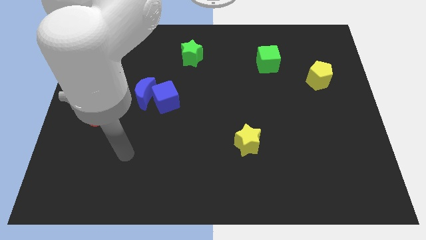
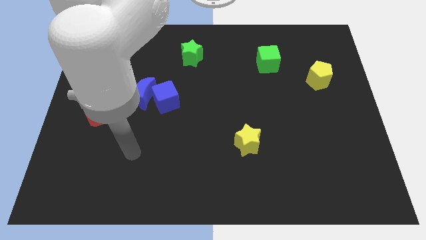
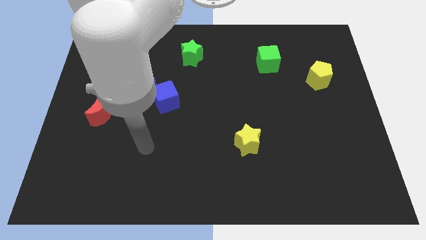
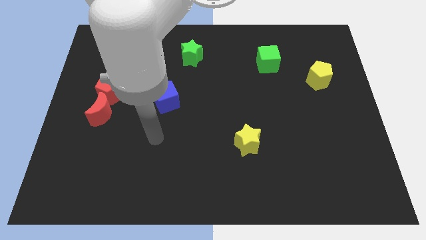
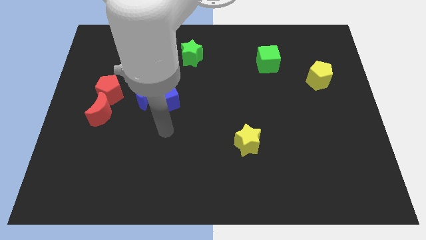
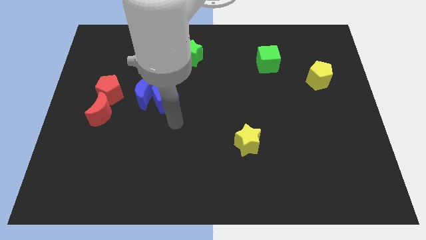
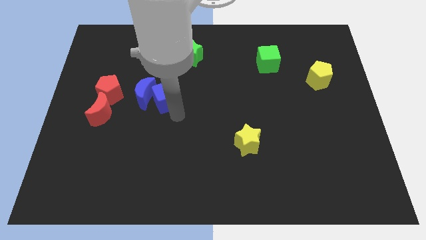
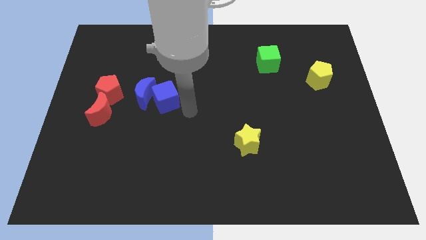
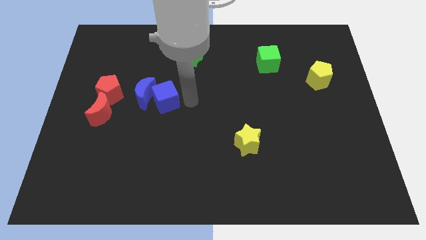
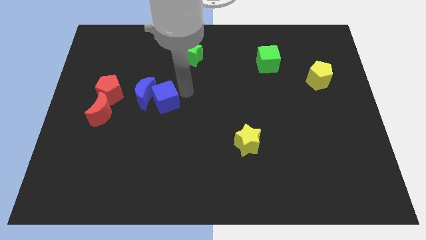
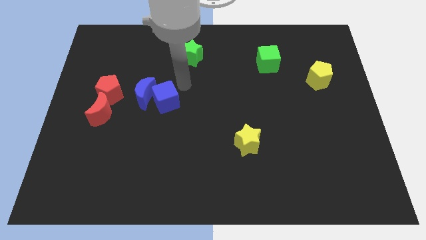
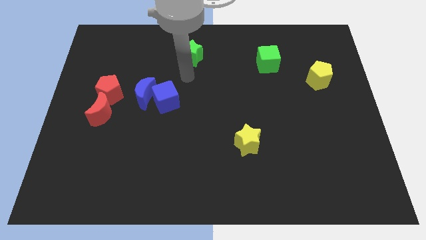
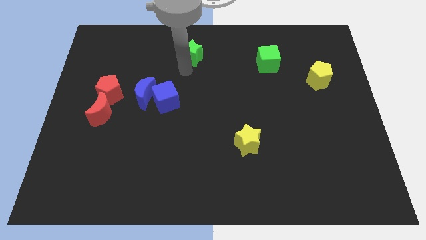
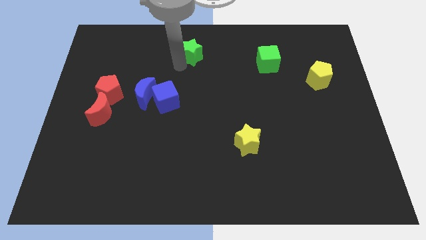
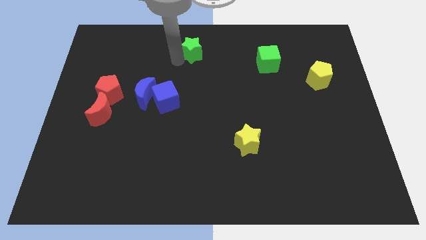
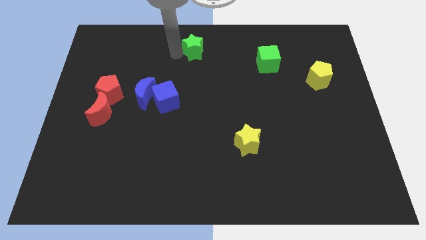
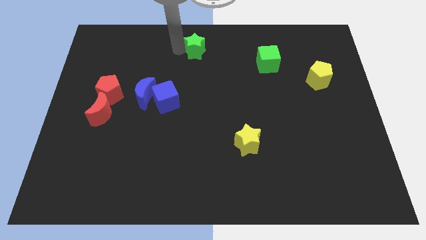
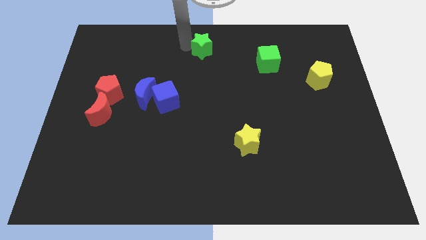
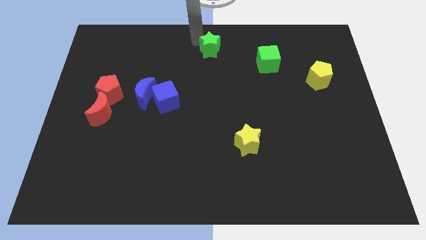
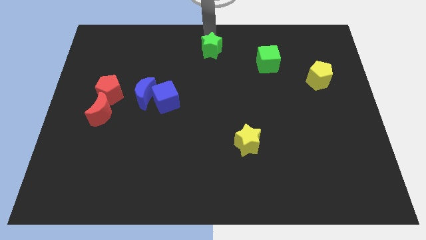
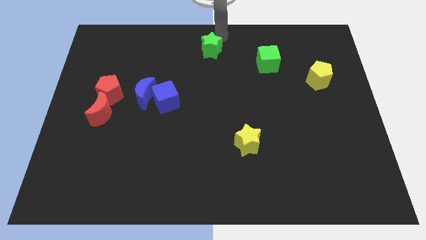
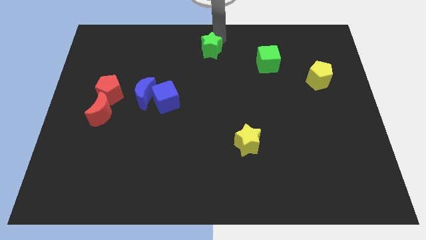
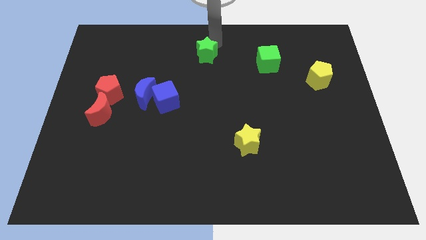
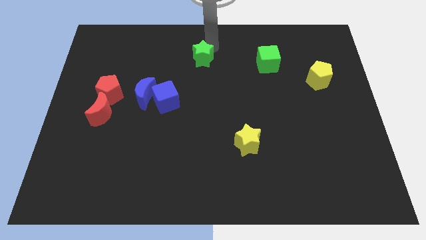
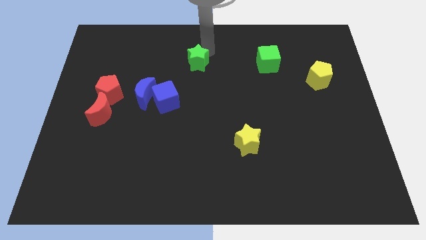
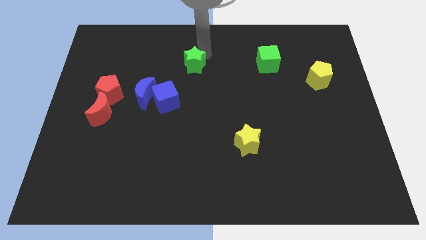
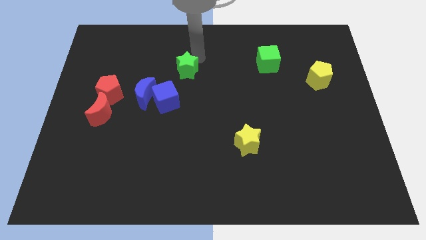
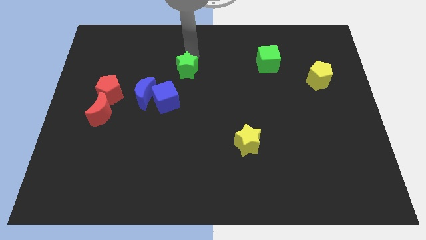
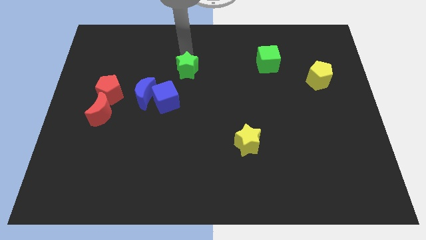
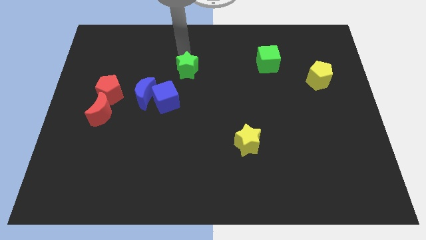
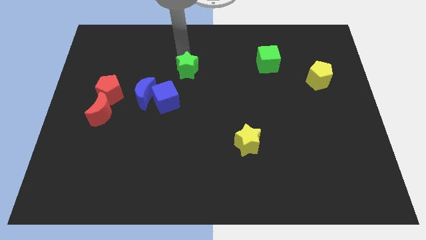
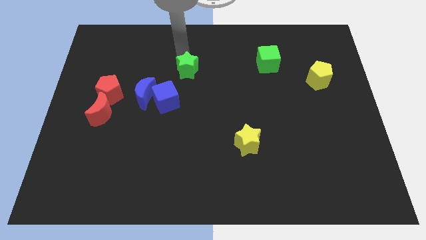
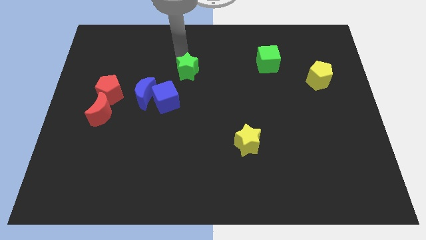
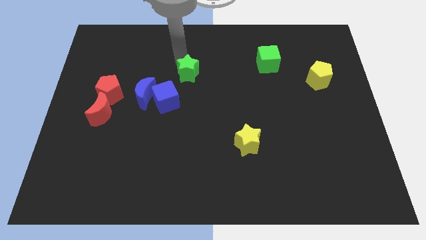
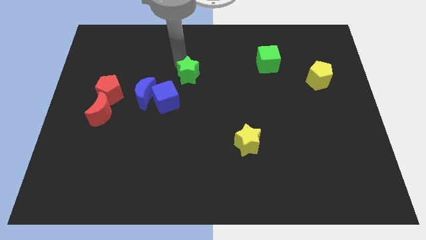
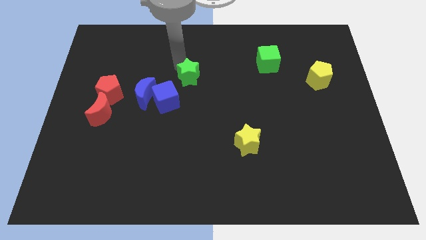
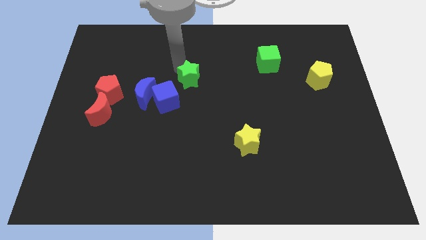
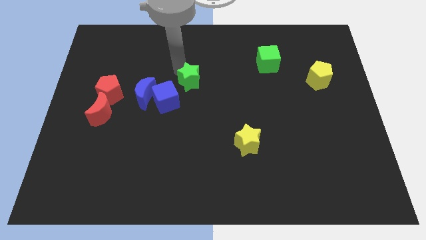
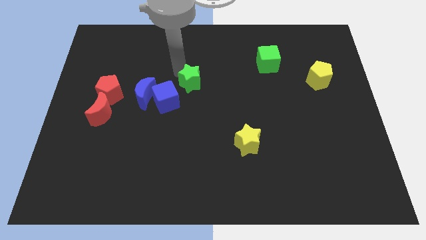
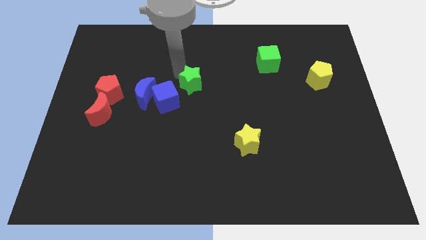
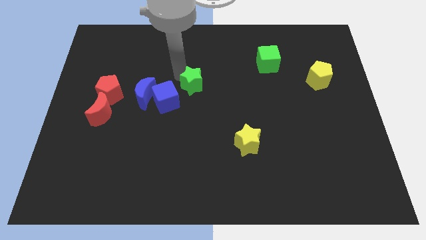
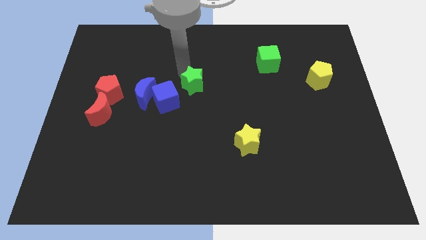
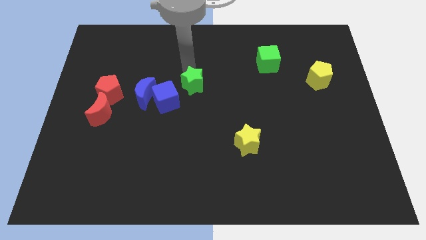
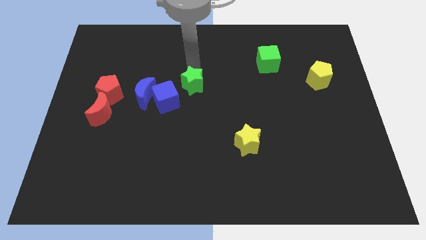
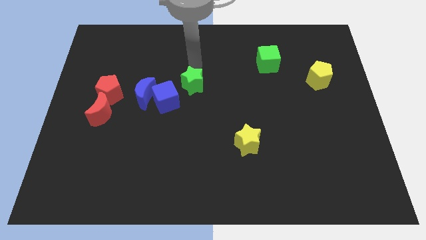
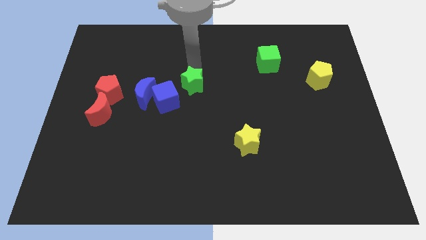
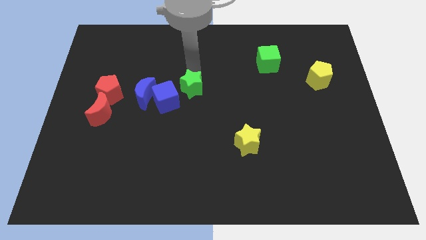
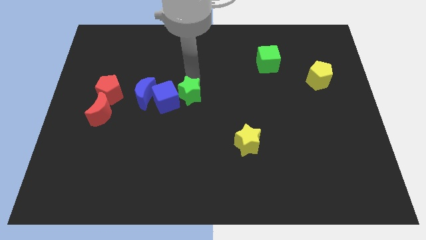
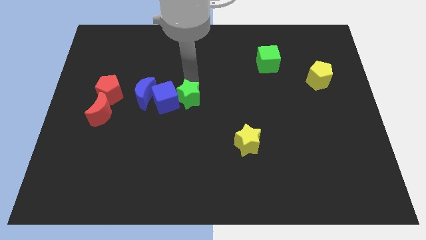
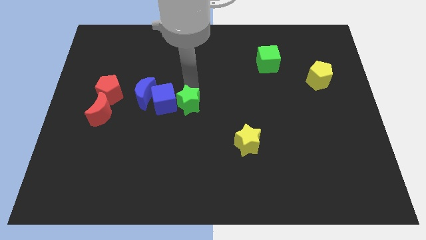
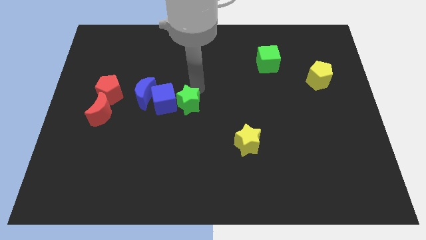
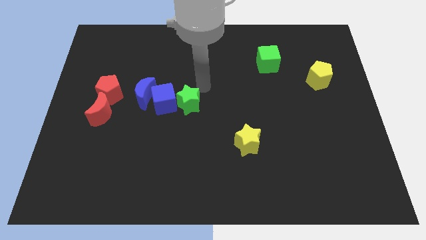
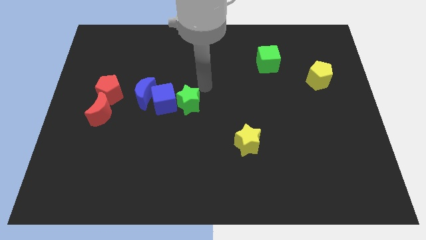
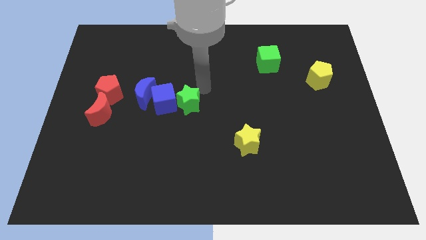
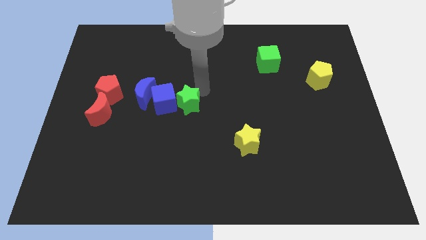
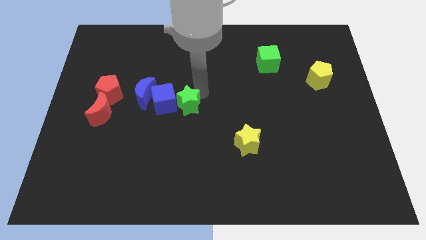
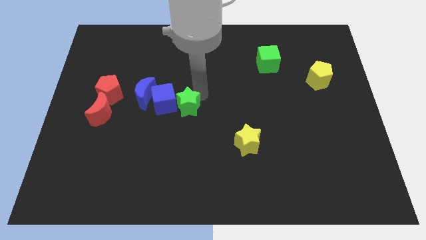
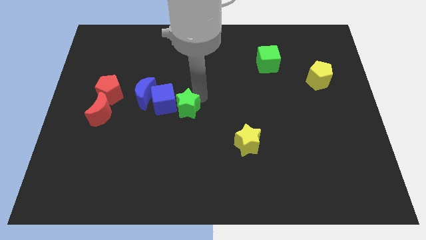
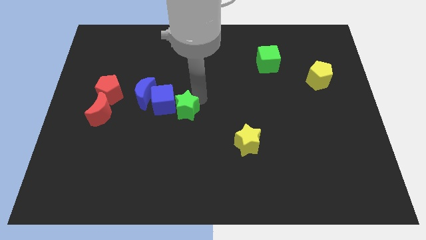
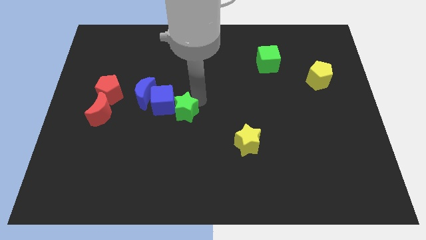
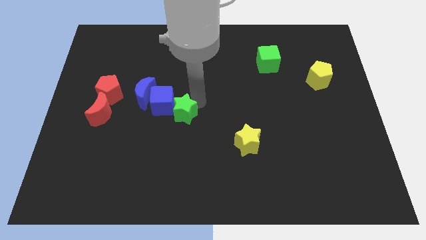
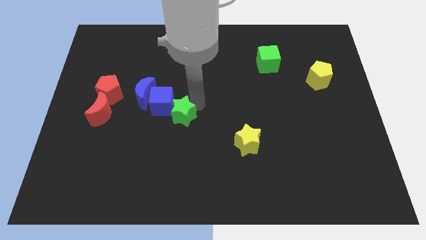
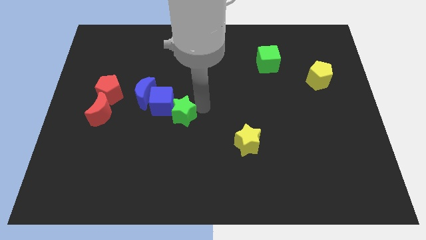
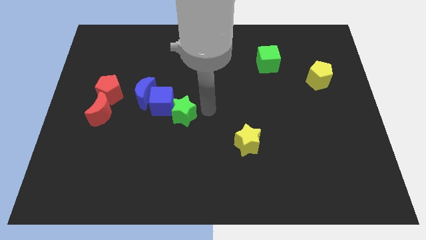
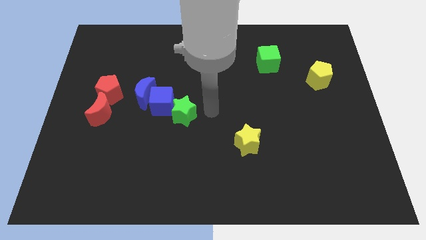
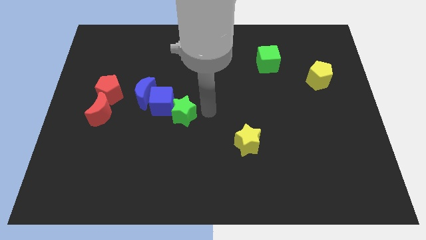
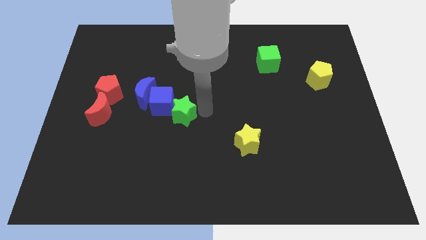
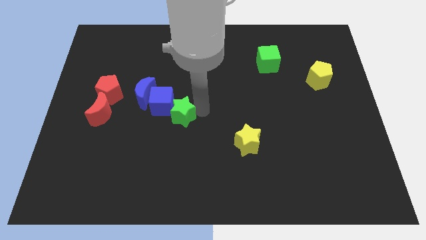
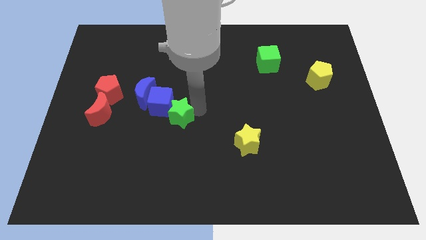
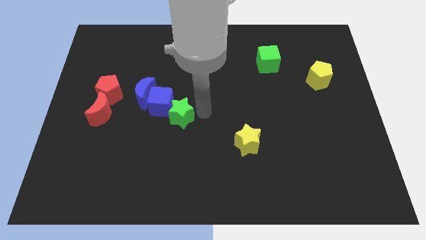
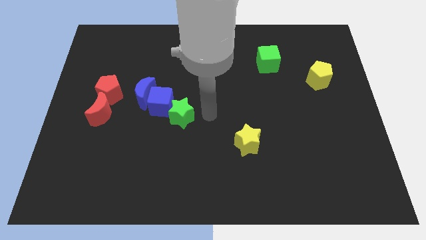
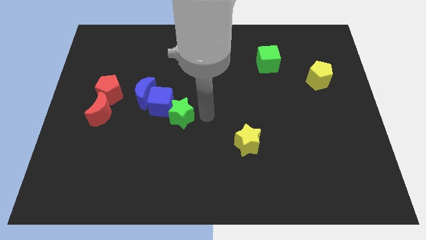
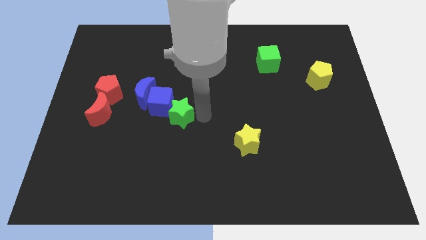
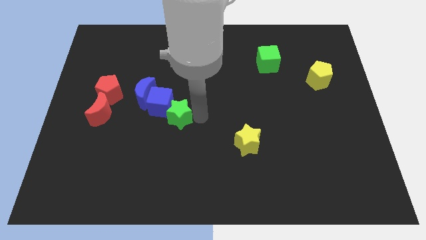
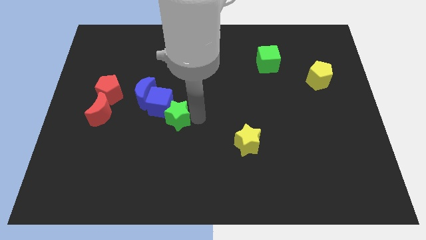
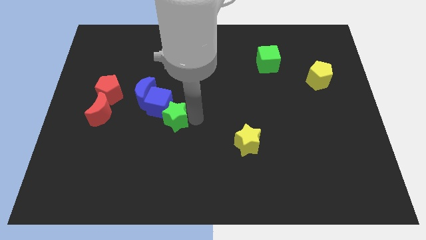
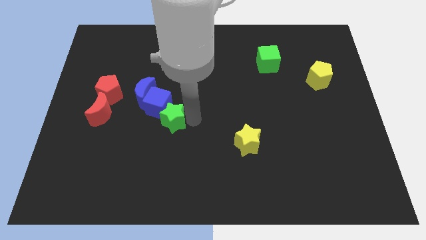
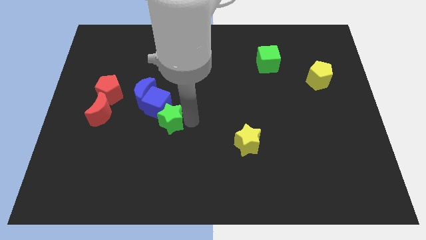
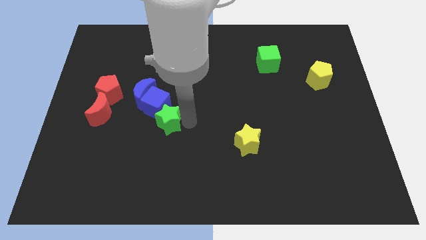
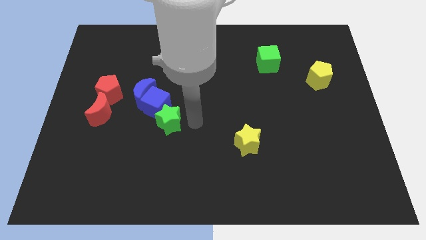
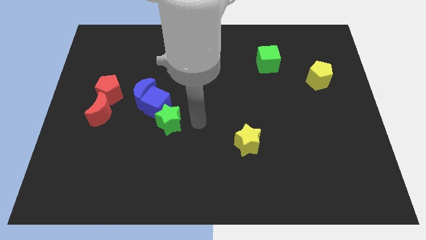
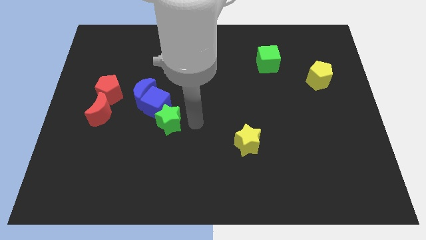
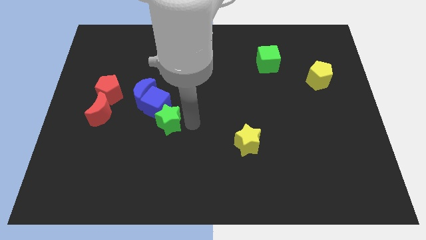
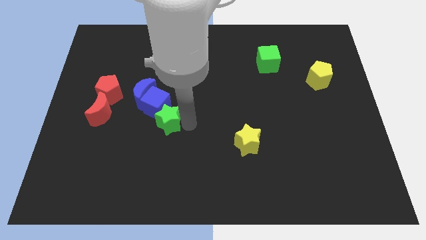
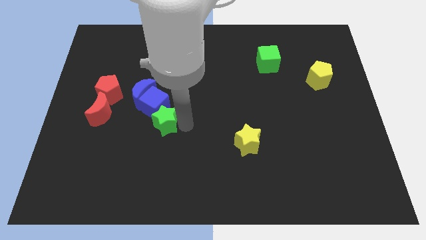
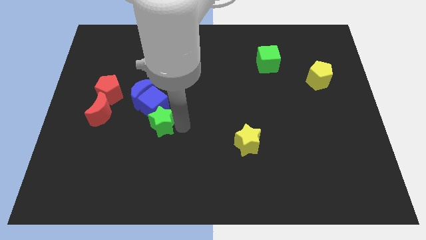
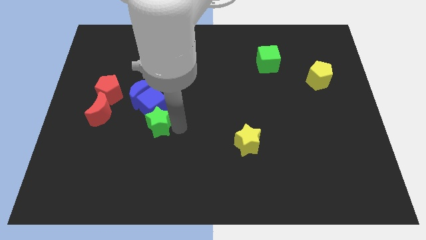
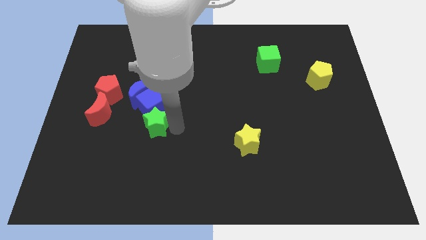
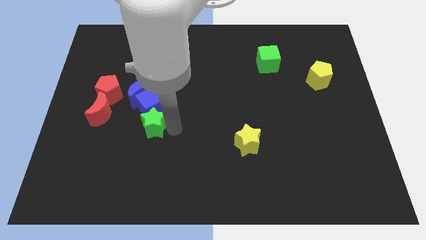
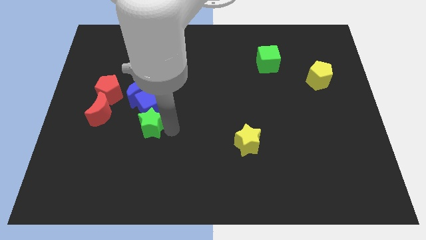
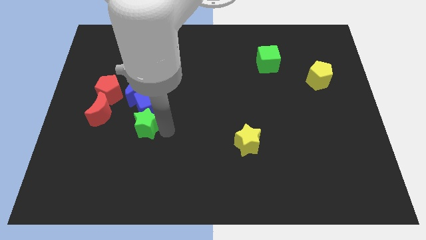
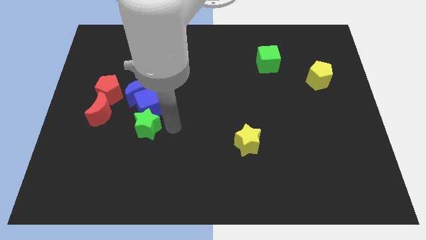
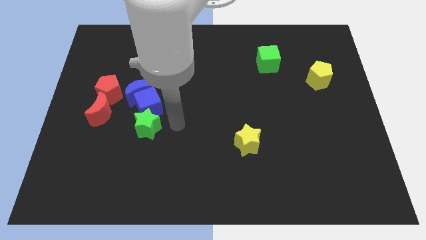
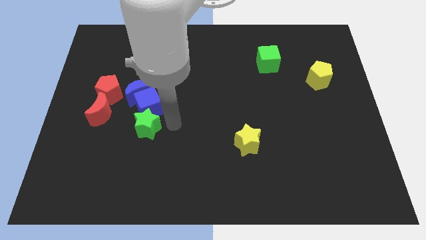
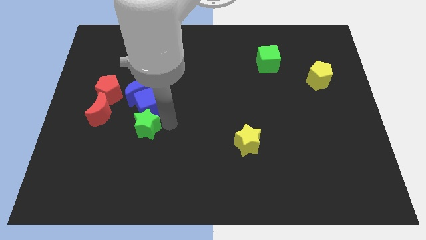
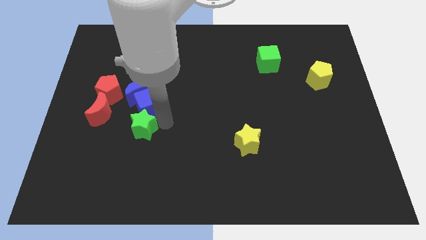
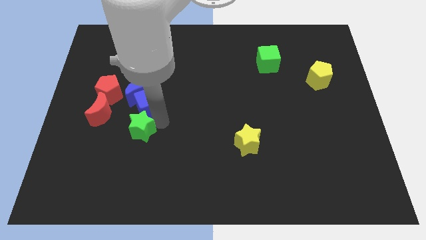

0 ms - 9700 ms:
slide the green star down and to the left
